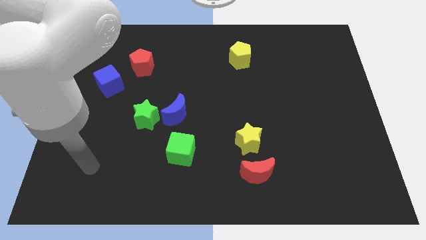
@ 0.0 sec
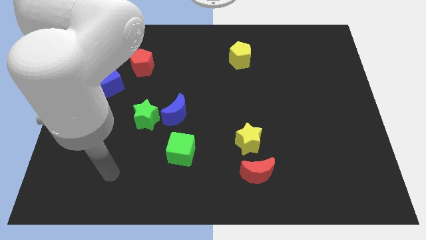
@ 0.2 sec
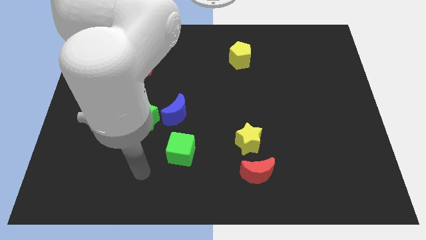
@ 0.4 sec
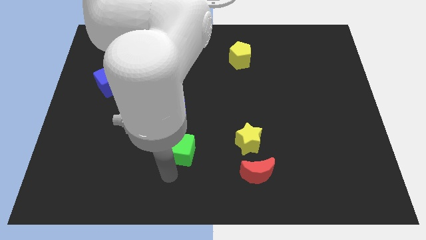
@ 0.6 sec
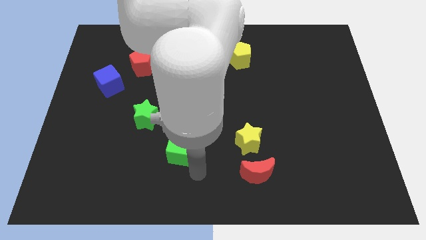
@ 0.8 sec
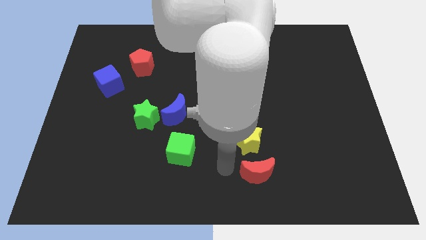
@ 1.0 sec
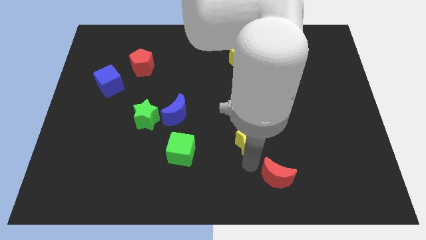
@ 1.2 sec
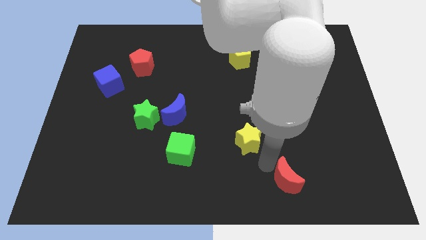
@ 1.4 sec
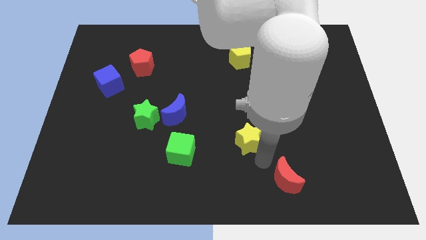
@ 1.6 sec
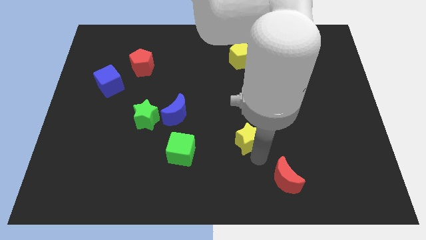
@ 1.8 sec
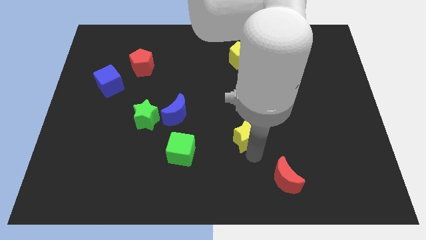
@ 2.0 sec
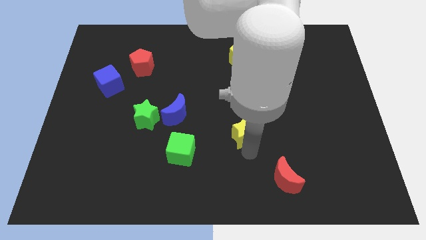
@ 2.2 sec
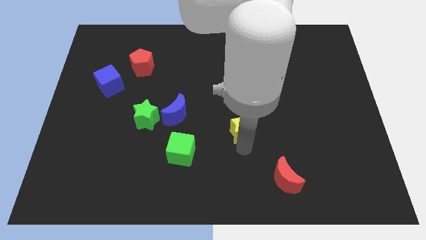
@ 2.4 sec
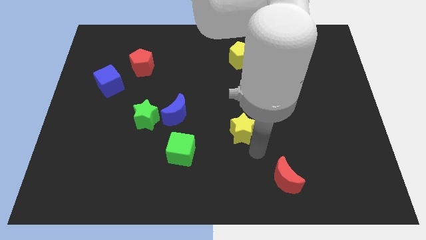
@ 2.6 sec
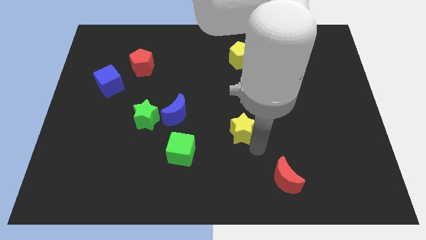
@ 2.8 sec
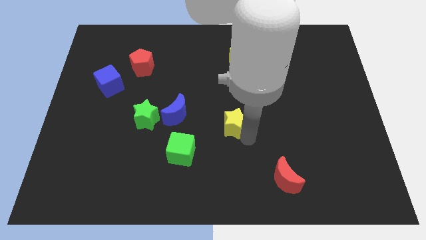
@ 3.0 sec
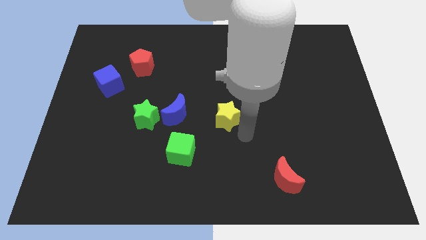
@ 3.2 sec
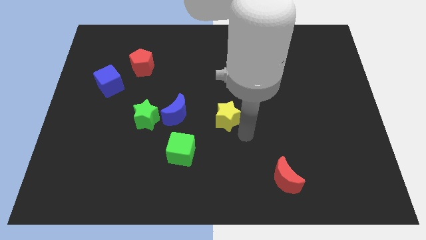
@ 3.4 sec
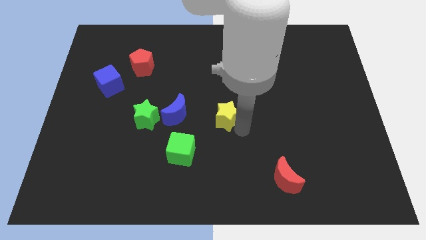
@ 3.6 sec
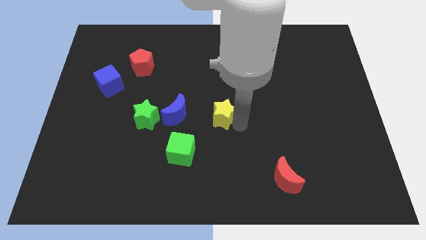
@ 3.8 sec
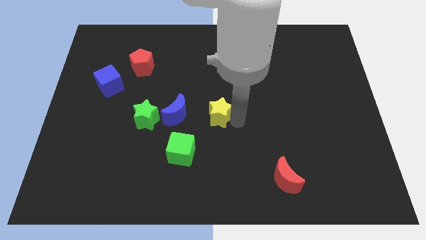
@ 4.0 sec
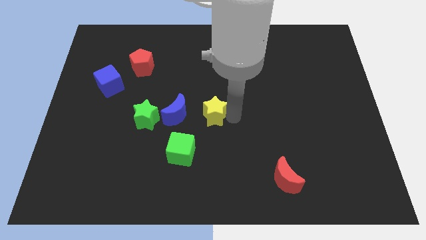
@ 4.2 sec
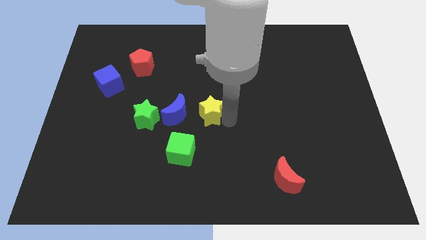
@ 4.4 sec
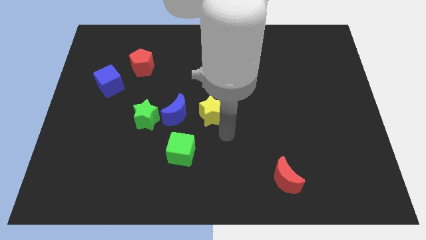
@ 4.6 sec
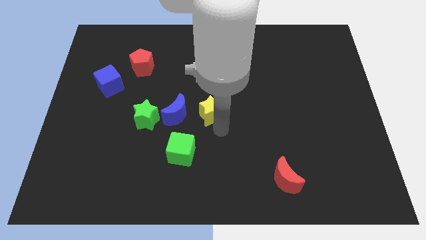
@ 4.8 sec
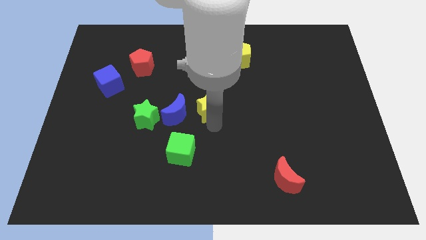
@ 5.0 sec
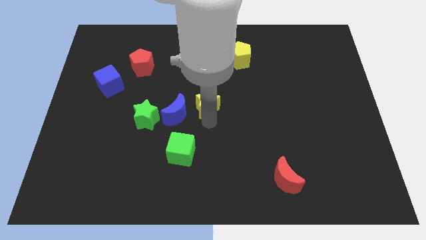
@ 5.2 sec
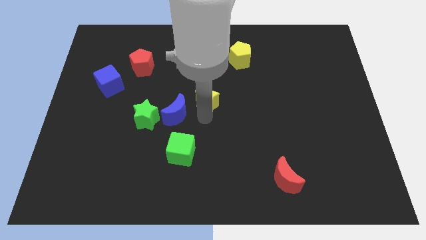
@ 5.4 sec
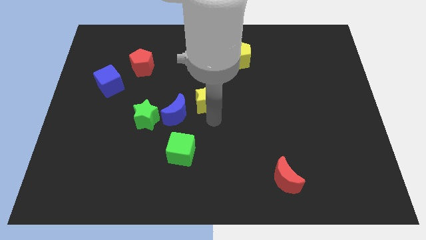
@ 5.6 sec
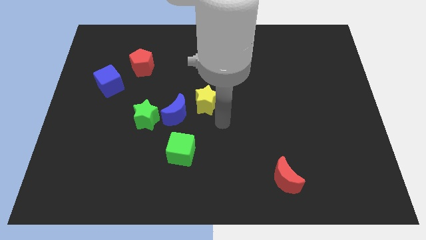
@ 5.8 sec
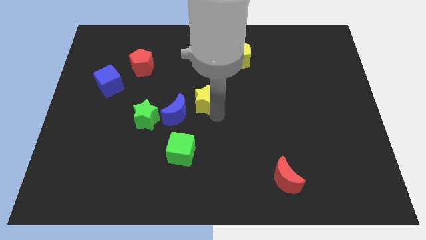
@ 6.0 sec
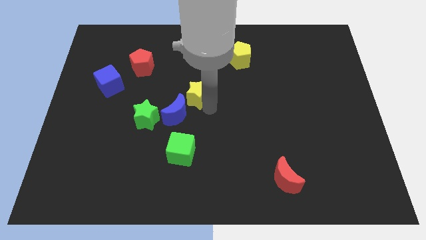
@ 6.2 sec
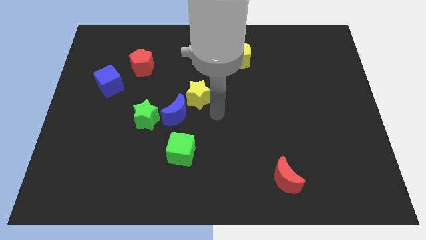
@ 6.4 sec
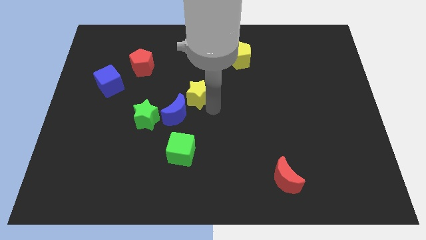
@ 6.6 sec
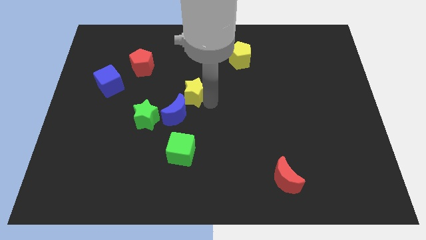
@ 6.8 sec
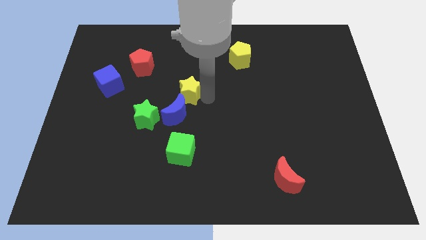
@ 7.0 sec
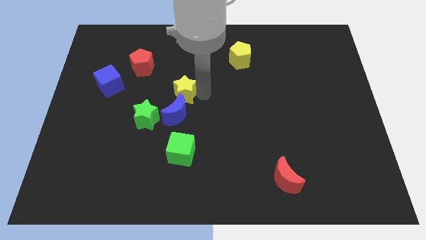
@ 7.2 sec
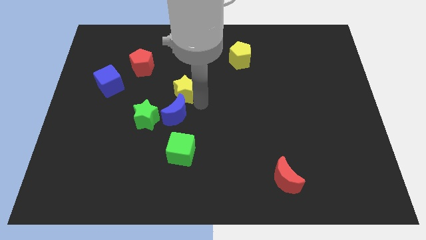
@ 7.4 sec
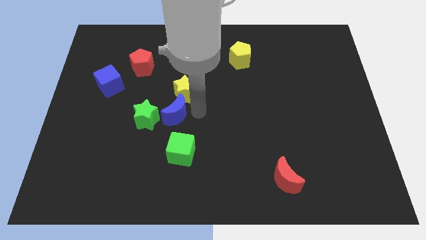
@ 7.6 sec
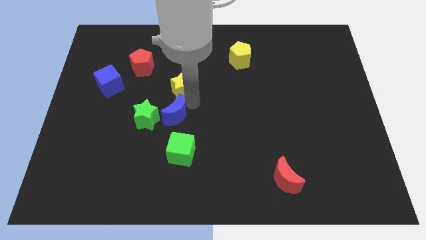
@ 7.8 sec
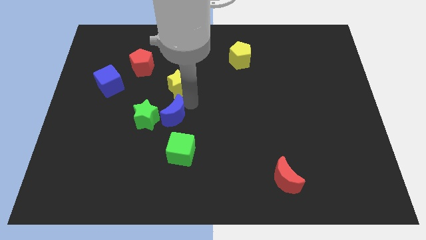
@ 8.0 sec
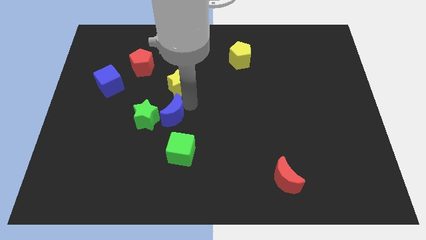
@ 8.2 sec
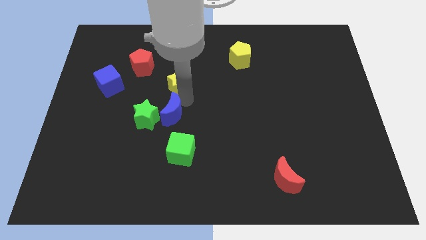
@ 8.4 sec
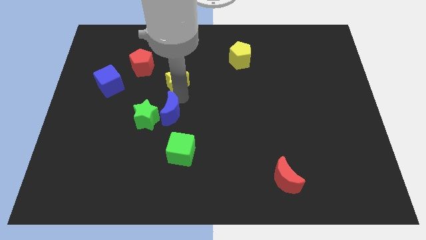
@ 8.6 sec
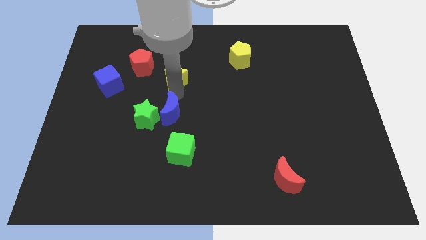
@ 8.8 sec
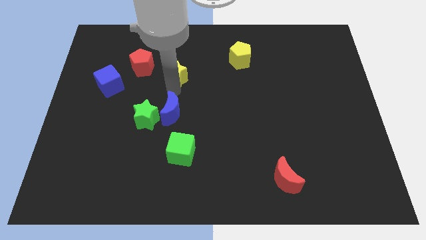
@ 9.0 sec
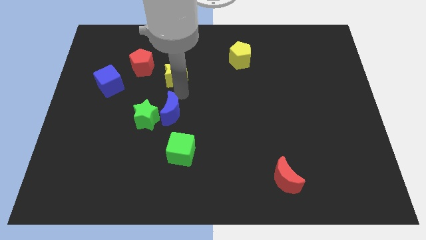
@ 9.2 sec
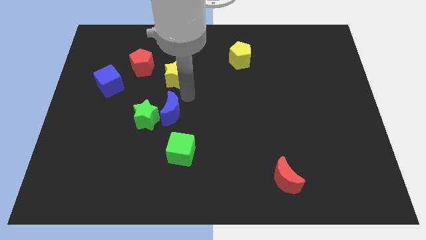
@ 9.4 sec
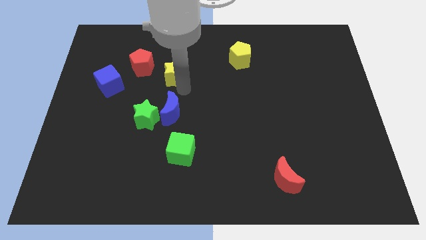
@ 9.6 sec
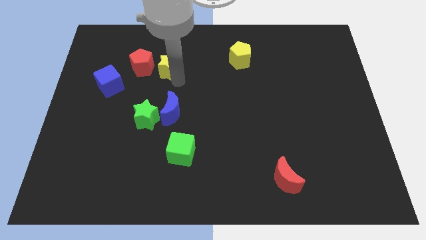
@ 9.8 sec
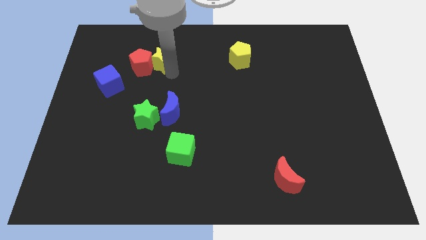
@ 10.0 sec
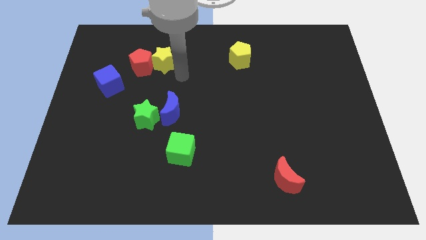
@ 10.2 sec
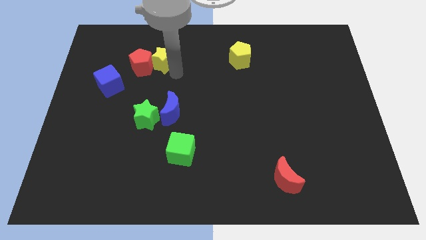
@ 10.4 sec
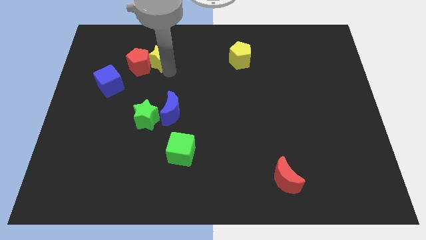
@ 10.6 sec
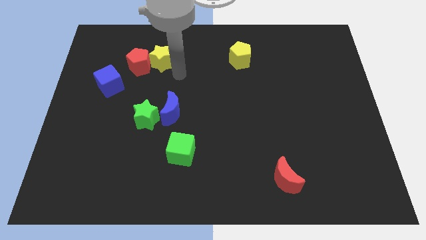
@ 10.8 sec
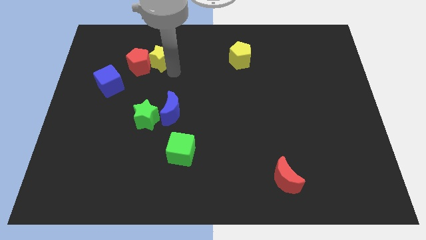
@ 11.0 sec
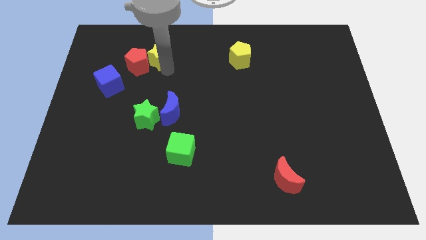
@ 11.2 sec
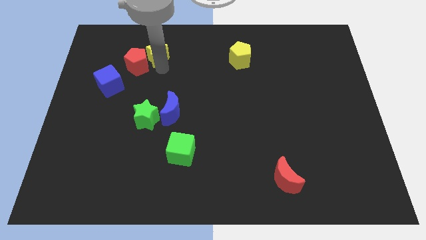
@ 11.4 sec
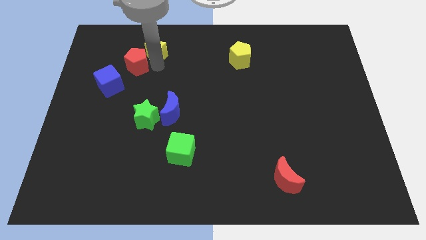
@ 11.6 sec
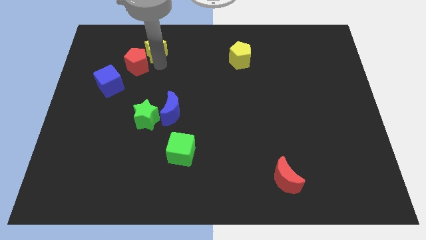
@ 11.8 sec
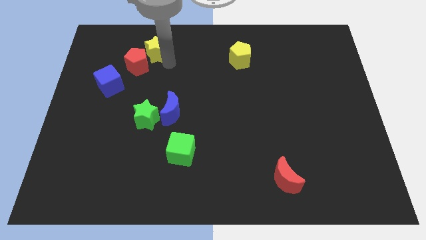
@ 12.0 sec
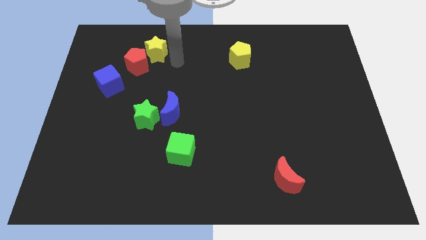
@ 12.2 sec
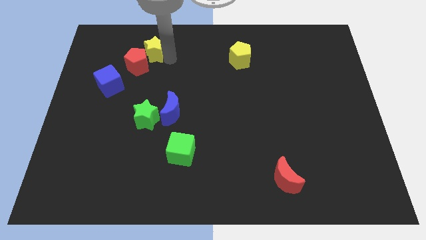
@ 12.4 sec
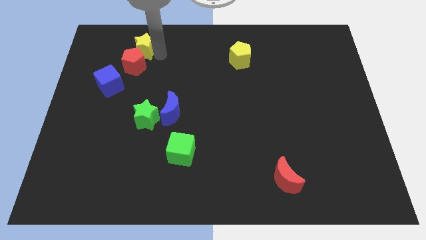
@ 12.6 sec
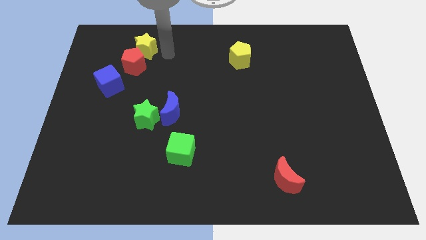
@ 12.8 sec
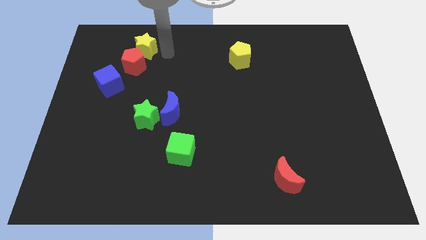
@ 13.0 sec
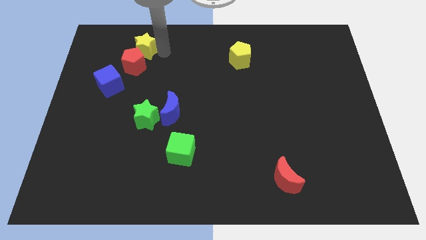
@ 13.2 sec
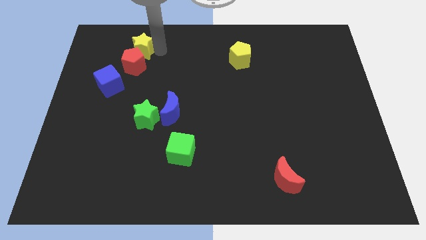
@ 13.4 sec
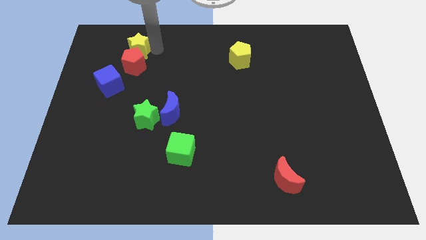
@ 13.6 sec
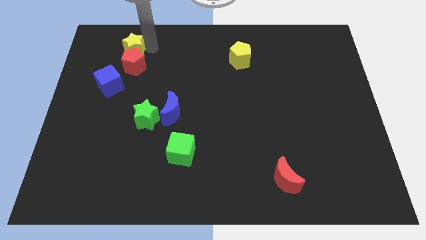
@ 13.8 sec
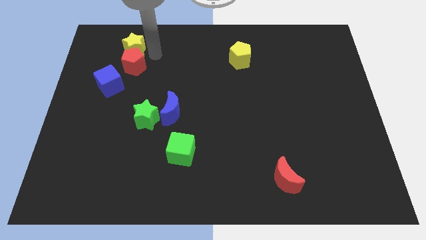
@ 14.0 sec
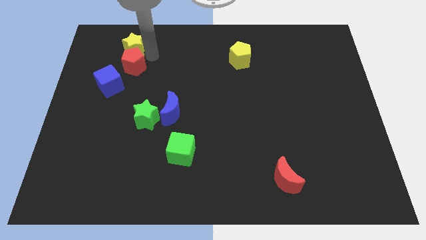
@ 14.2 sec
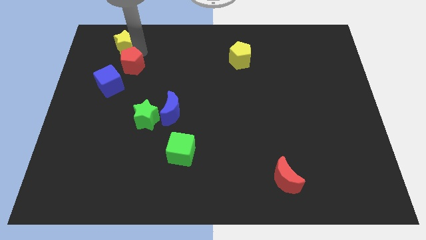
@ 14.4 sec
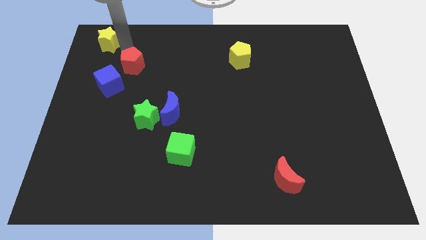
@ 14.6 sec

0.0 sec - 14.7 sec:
push the yellow star to the top left corner
